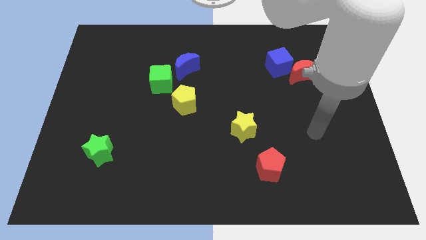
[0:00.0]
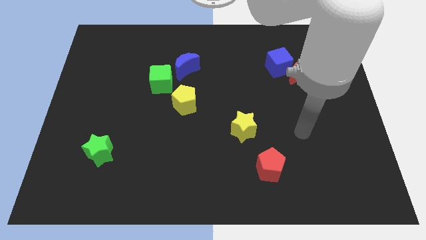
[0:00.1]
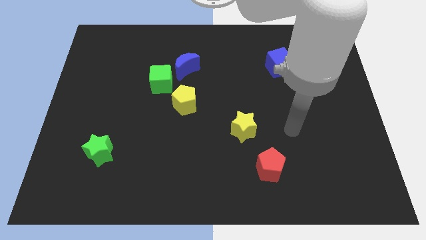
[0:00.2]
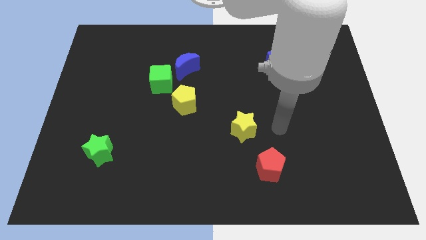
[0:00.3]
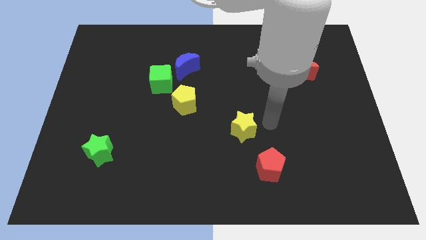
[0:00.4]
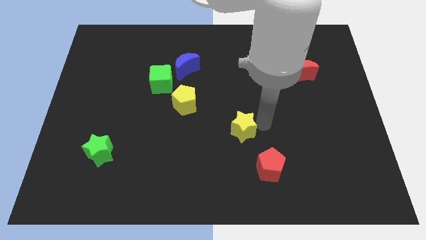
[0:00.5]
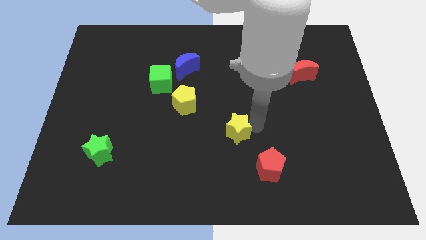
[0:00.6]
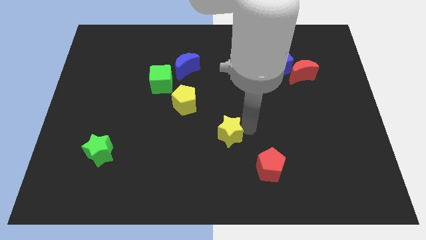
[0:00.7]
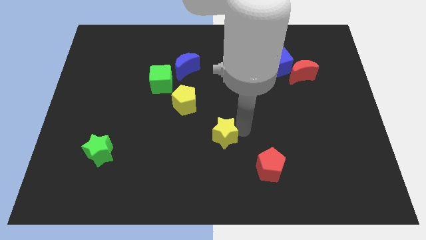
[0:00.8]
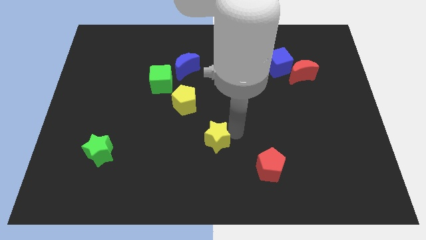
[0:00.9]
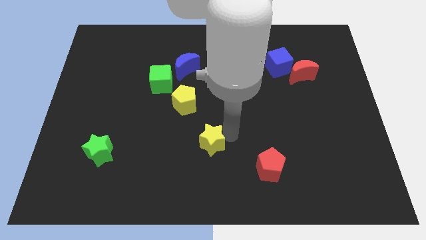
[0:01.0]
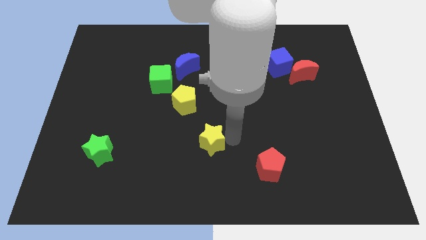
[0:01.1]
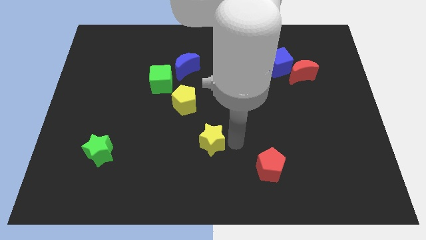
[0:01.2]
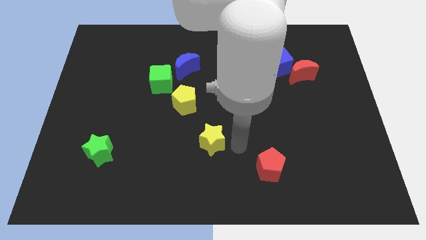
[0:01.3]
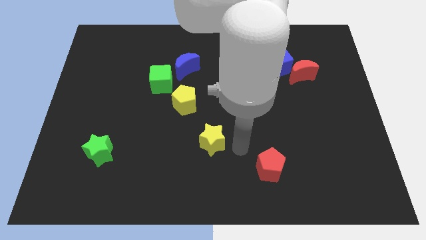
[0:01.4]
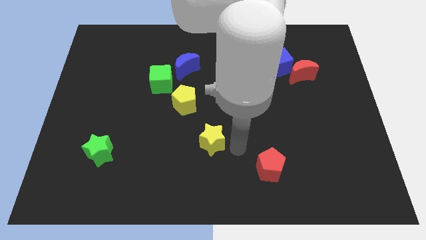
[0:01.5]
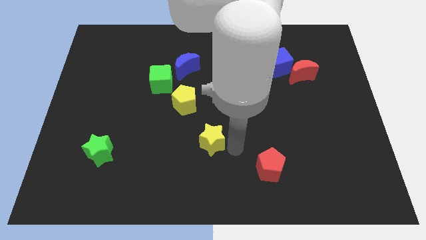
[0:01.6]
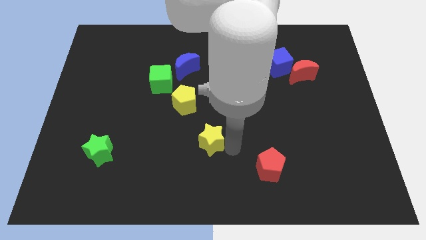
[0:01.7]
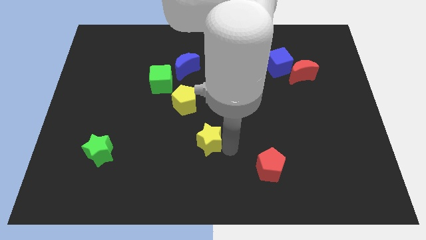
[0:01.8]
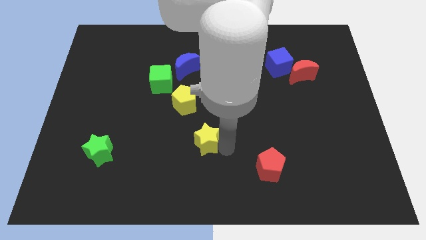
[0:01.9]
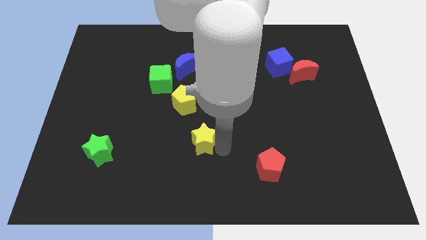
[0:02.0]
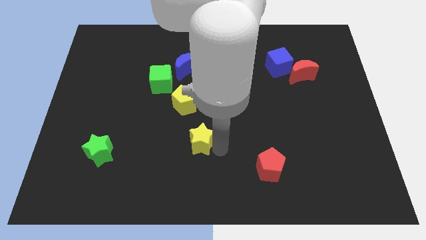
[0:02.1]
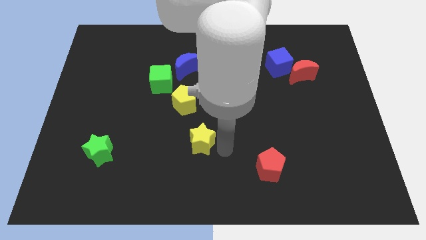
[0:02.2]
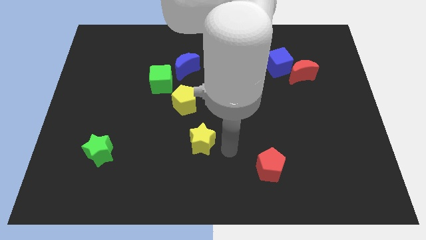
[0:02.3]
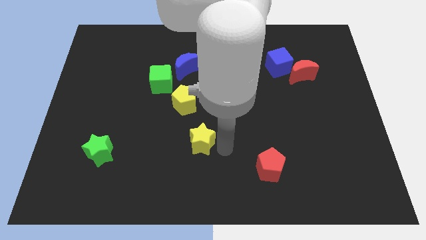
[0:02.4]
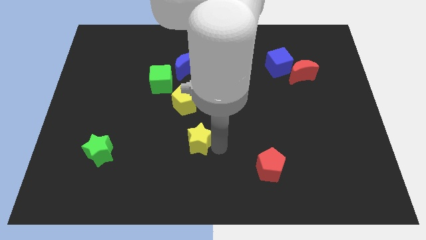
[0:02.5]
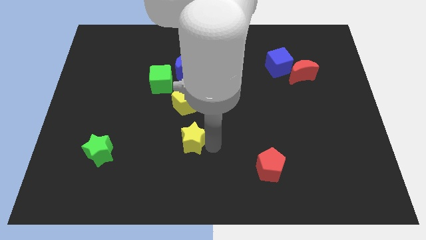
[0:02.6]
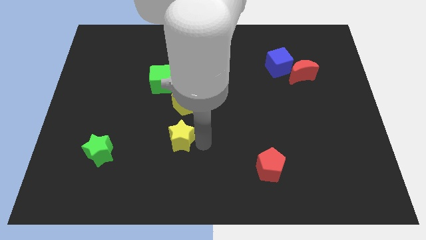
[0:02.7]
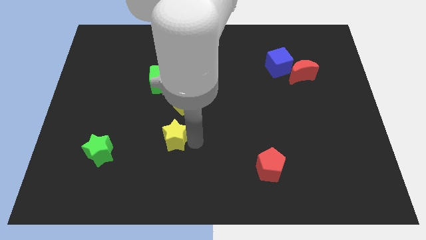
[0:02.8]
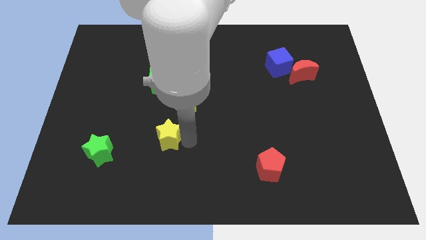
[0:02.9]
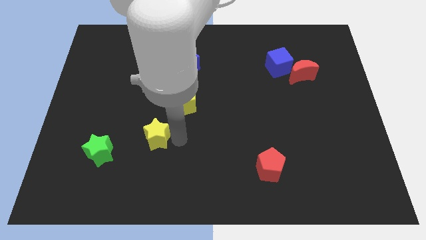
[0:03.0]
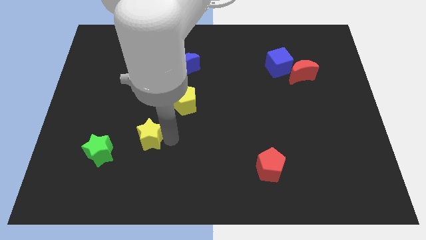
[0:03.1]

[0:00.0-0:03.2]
move the yellow star left

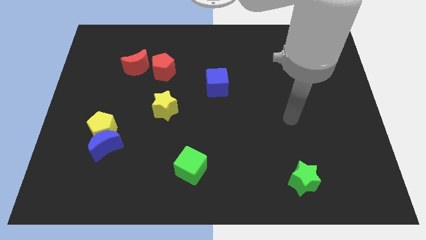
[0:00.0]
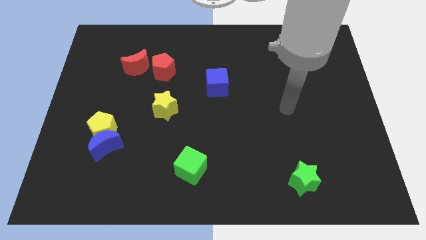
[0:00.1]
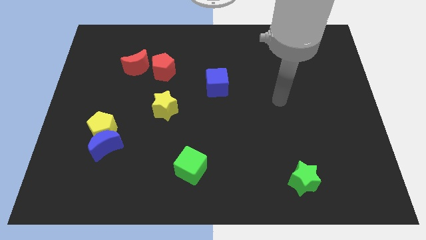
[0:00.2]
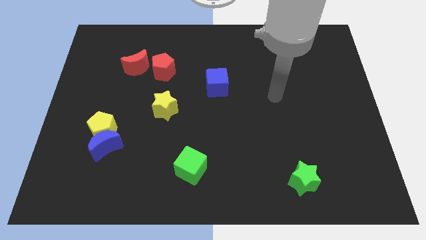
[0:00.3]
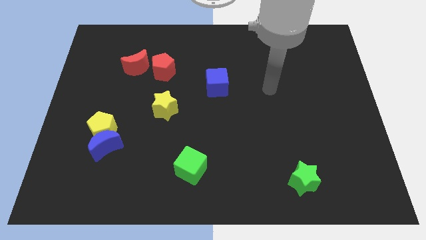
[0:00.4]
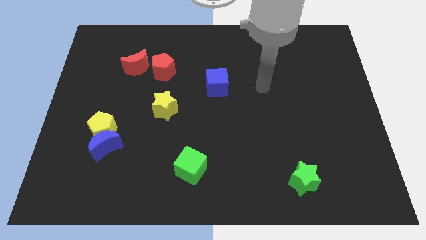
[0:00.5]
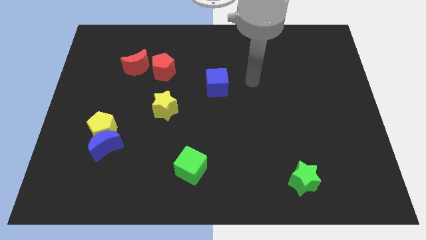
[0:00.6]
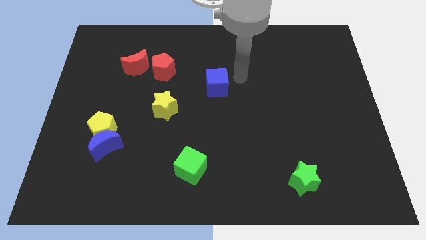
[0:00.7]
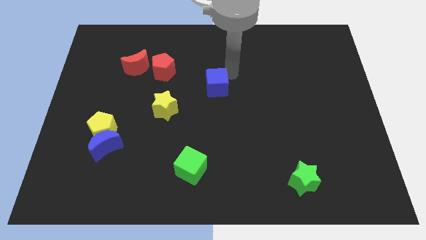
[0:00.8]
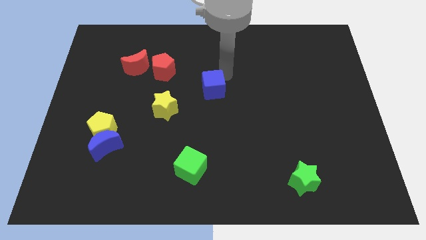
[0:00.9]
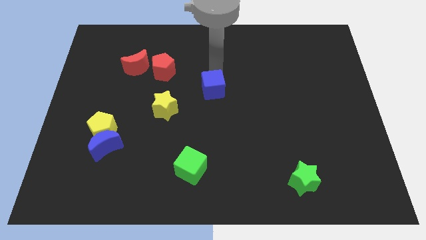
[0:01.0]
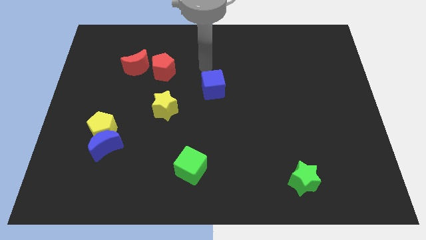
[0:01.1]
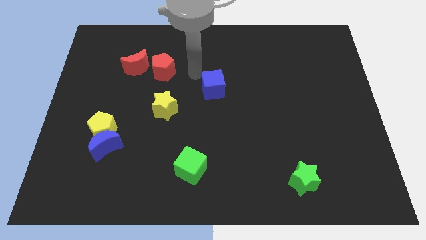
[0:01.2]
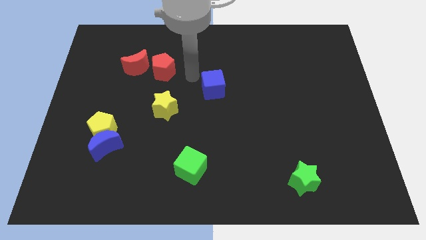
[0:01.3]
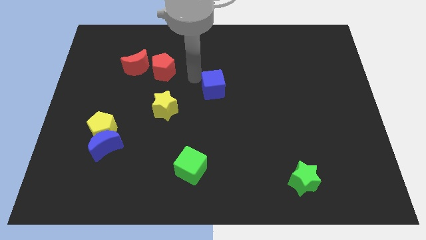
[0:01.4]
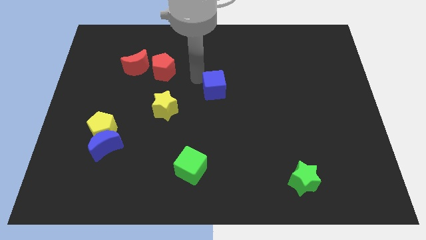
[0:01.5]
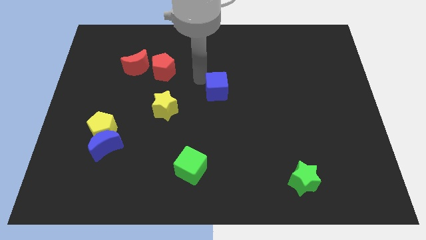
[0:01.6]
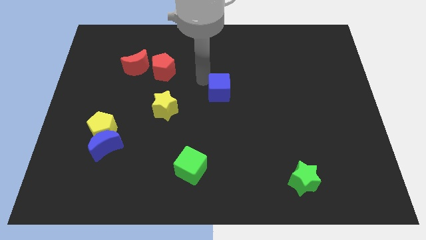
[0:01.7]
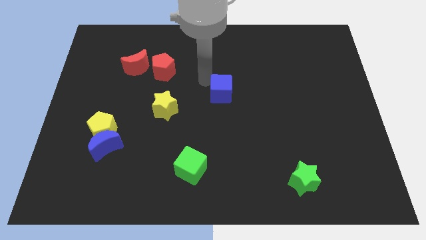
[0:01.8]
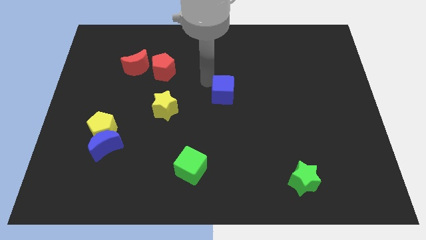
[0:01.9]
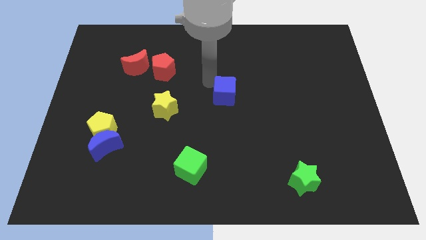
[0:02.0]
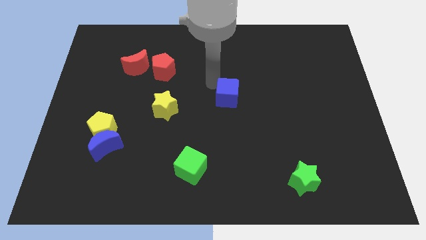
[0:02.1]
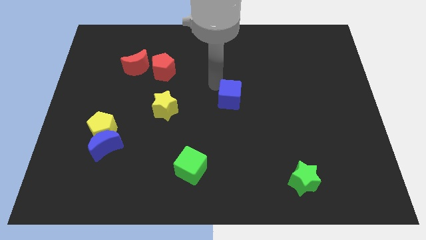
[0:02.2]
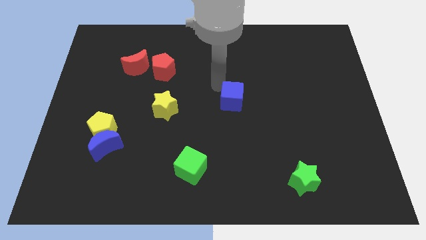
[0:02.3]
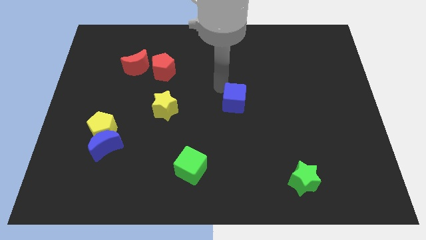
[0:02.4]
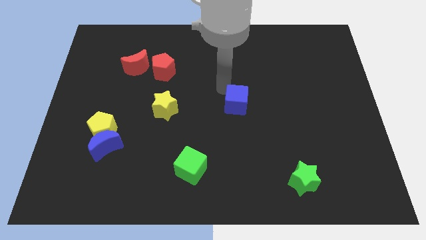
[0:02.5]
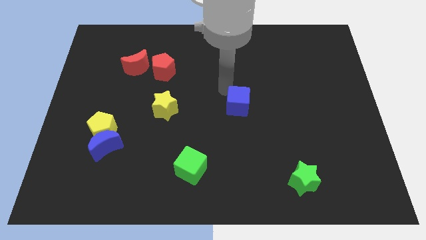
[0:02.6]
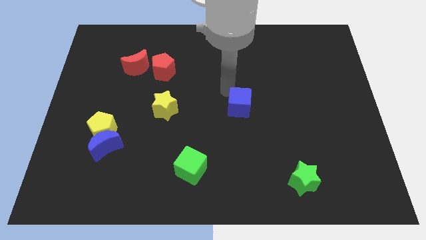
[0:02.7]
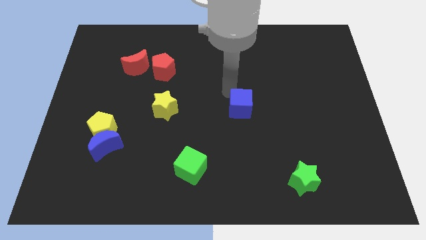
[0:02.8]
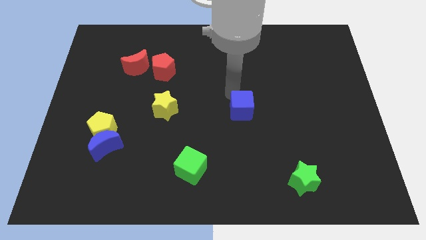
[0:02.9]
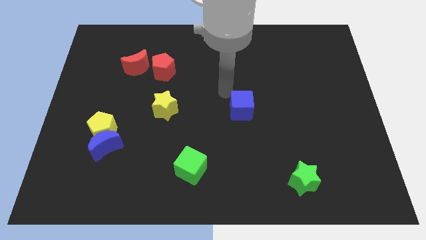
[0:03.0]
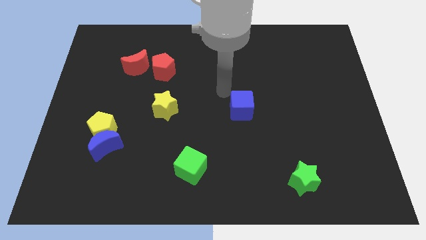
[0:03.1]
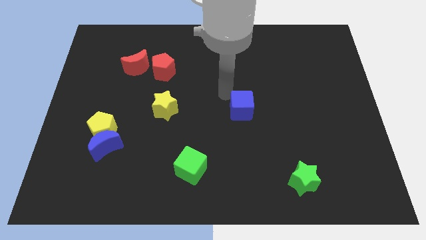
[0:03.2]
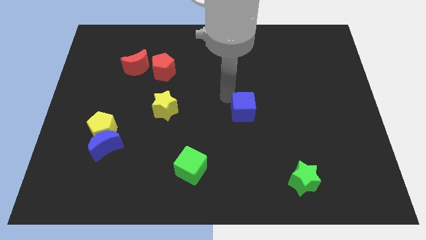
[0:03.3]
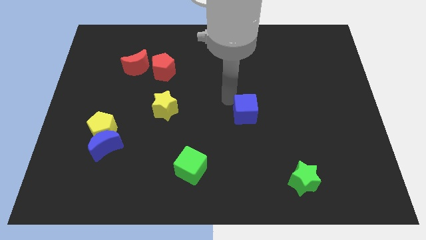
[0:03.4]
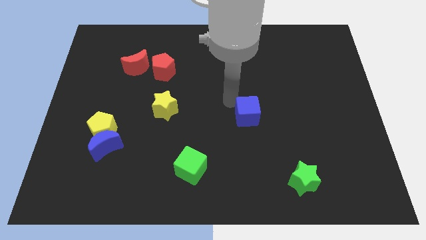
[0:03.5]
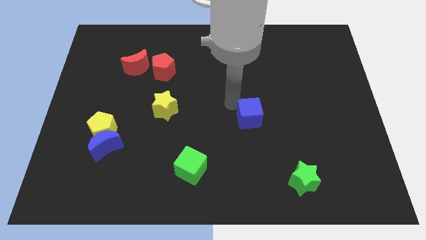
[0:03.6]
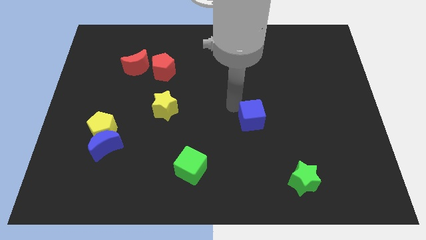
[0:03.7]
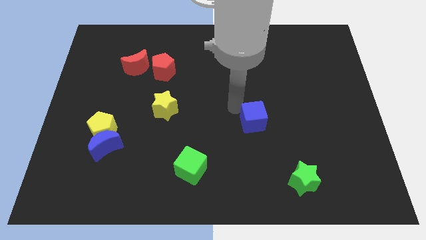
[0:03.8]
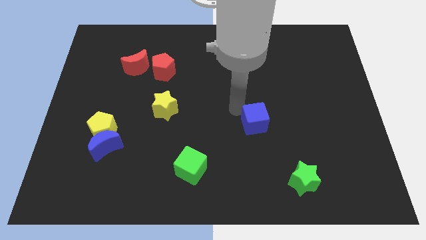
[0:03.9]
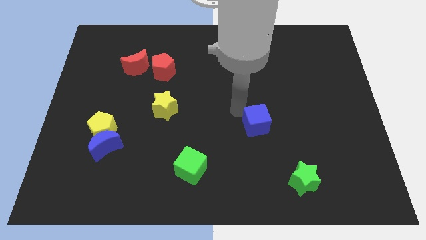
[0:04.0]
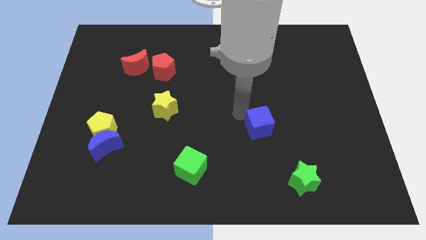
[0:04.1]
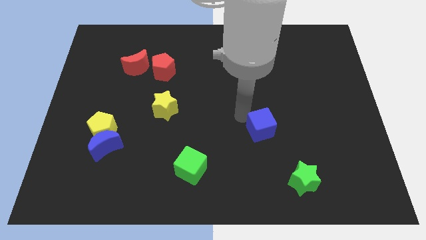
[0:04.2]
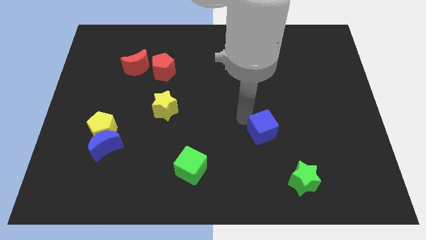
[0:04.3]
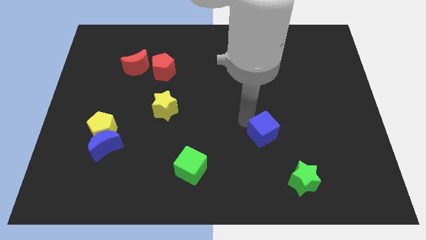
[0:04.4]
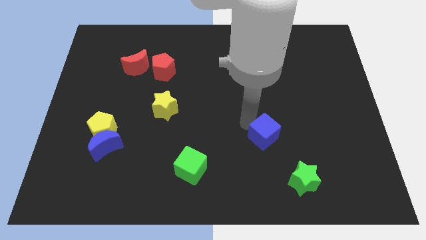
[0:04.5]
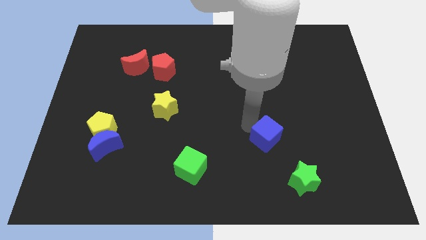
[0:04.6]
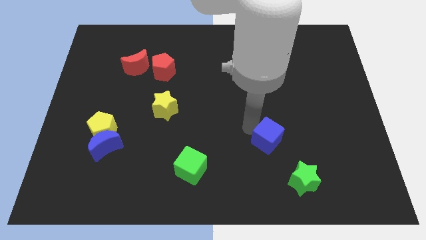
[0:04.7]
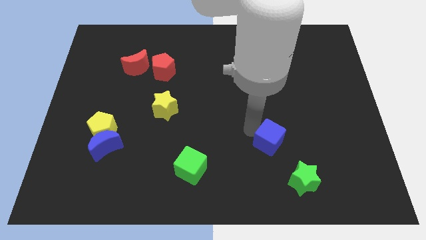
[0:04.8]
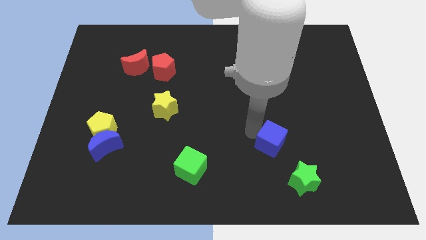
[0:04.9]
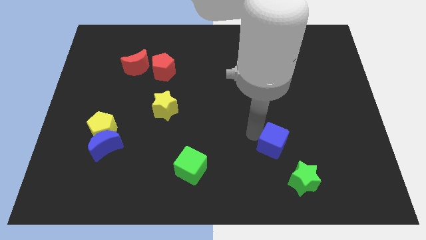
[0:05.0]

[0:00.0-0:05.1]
move the blue cube downwards and right

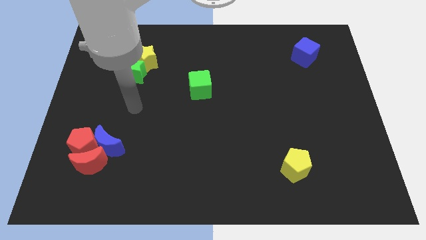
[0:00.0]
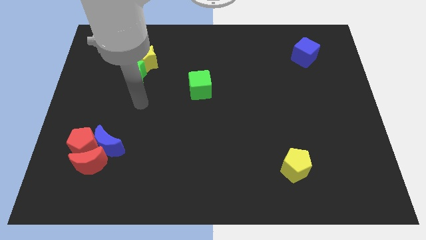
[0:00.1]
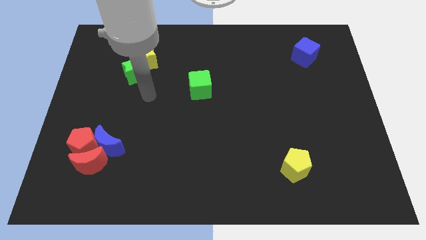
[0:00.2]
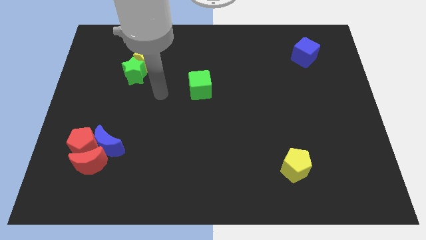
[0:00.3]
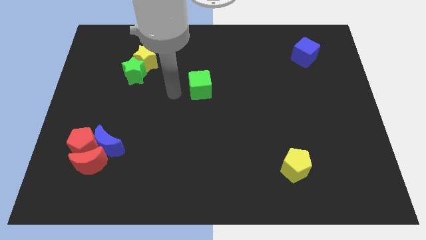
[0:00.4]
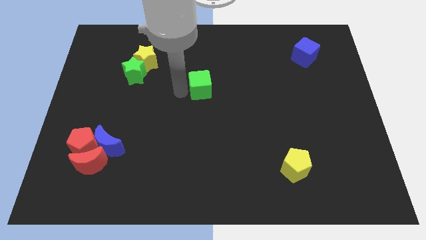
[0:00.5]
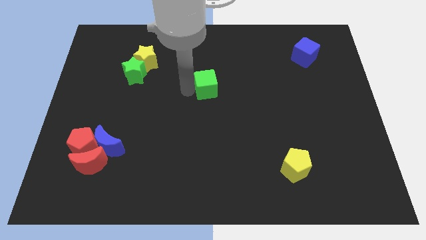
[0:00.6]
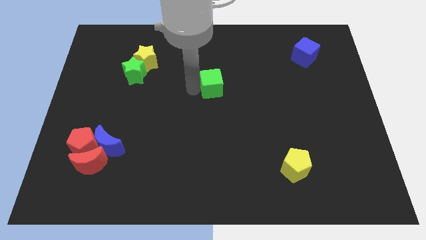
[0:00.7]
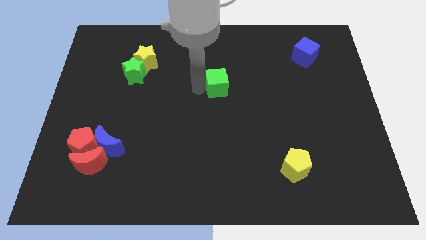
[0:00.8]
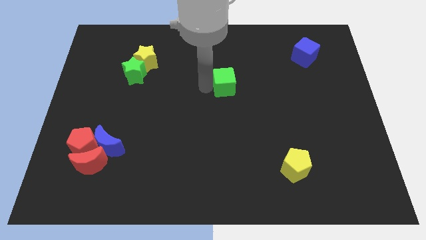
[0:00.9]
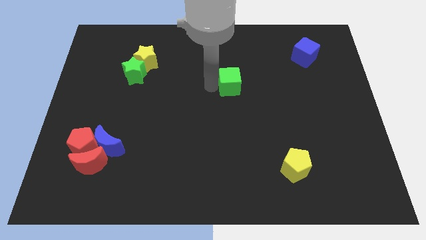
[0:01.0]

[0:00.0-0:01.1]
push the green cube right a bit
